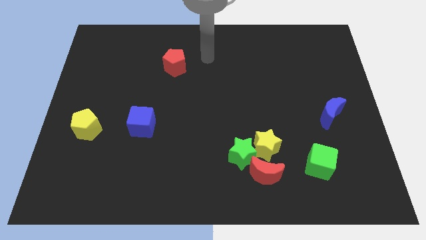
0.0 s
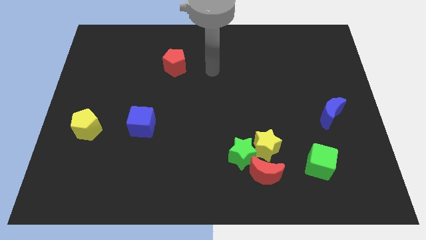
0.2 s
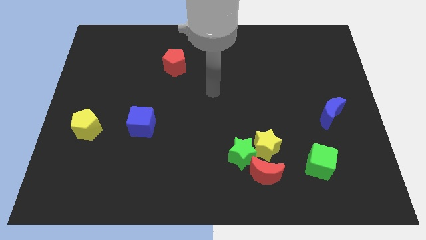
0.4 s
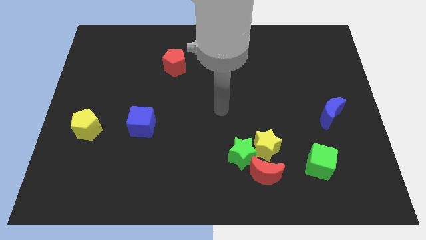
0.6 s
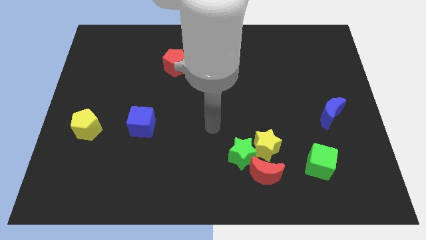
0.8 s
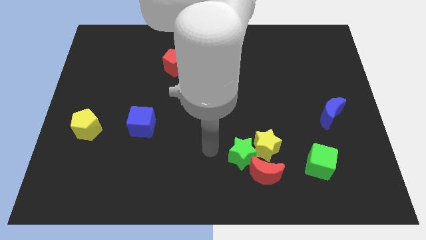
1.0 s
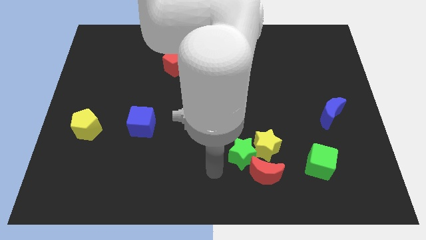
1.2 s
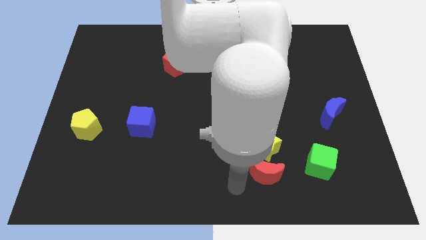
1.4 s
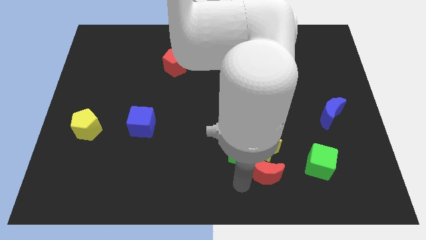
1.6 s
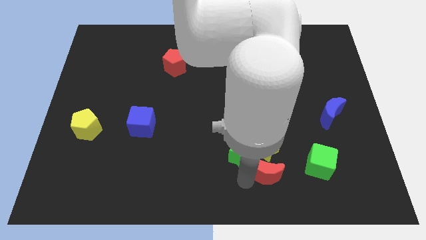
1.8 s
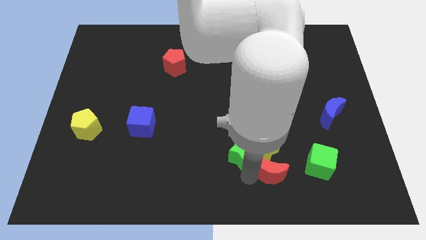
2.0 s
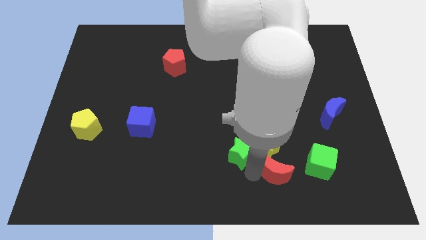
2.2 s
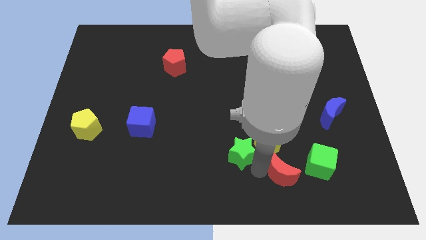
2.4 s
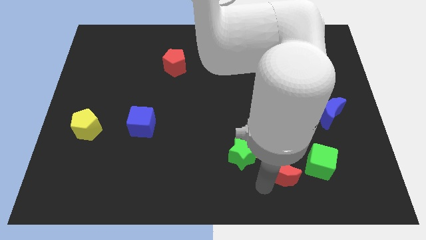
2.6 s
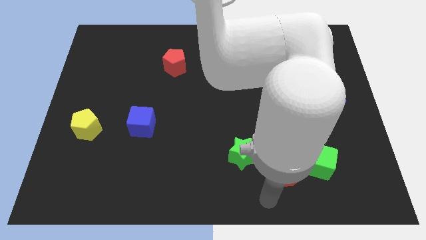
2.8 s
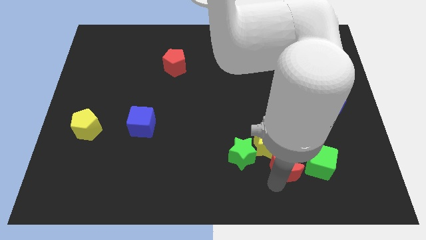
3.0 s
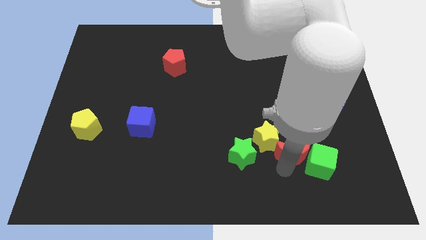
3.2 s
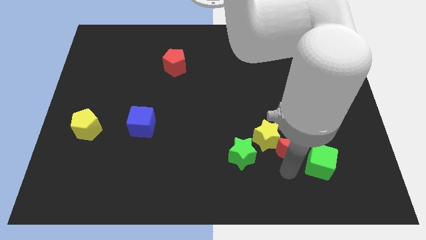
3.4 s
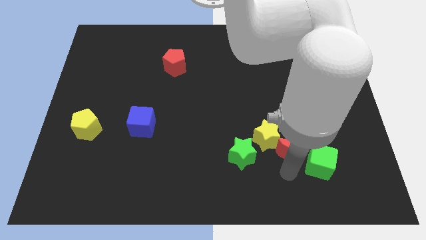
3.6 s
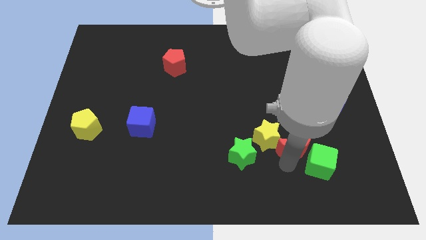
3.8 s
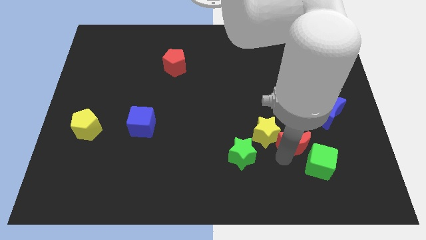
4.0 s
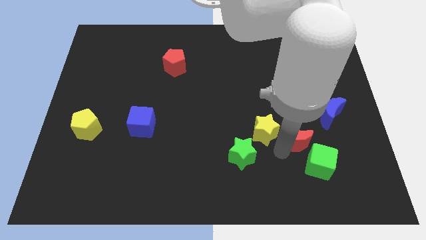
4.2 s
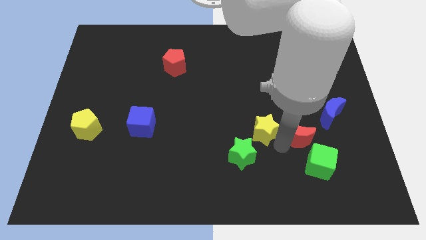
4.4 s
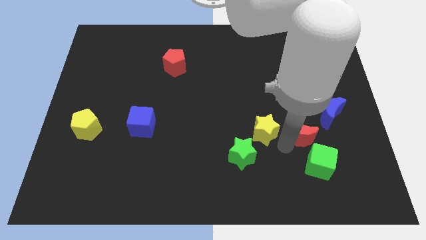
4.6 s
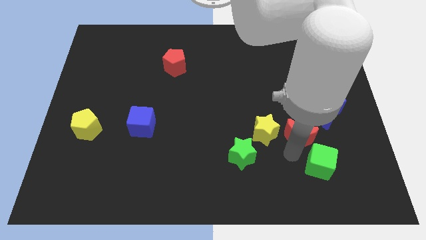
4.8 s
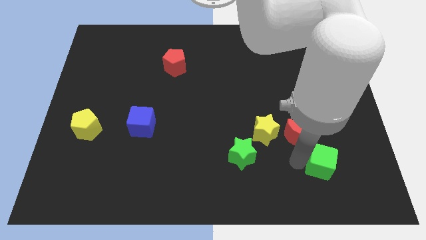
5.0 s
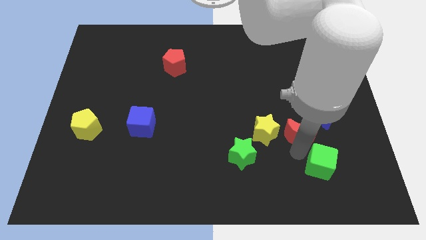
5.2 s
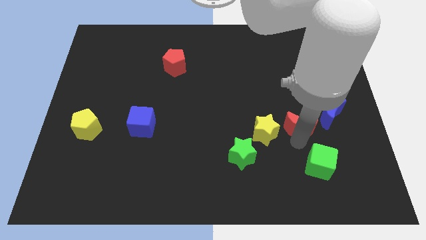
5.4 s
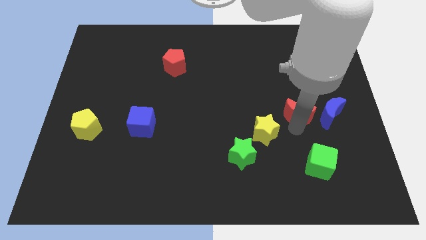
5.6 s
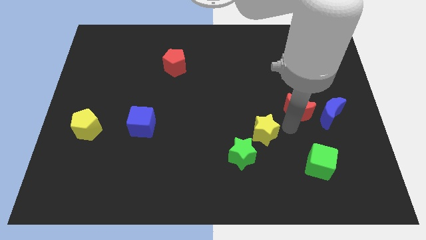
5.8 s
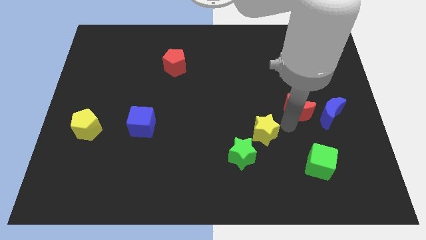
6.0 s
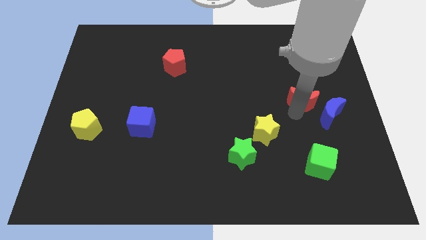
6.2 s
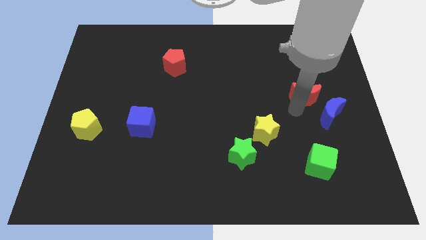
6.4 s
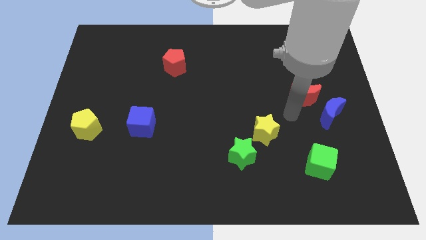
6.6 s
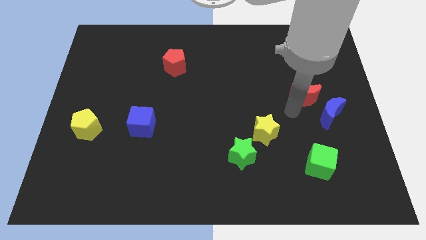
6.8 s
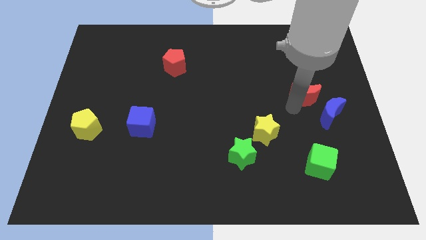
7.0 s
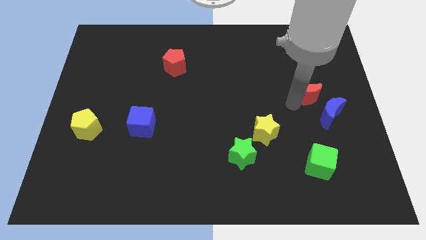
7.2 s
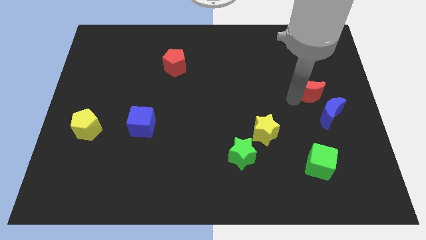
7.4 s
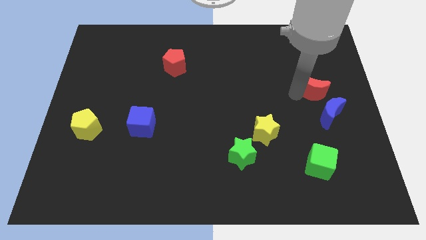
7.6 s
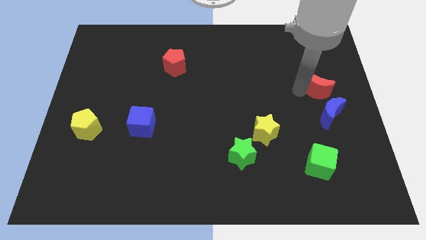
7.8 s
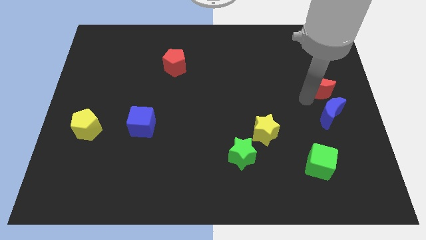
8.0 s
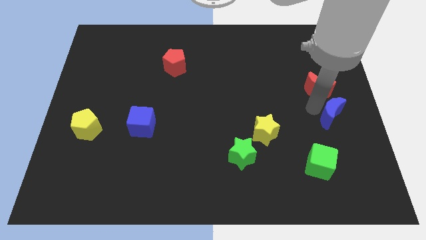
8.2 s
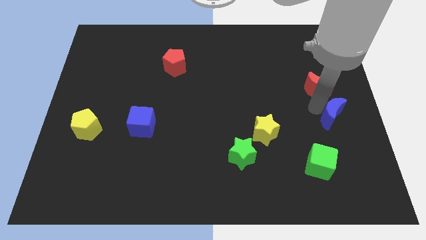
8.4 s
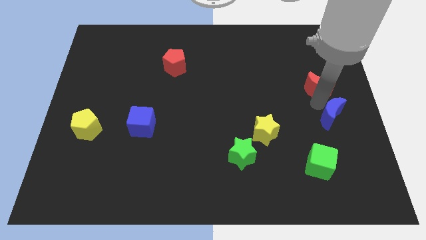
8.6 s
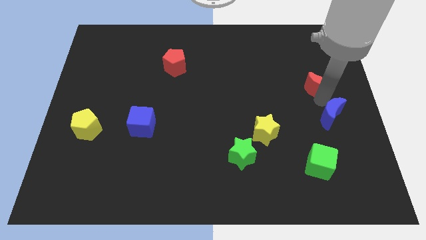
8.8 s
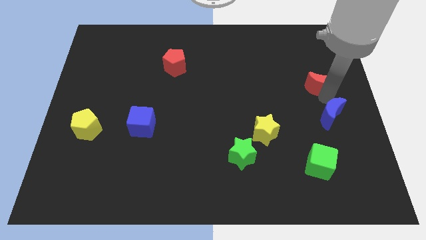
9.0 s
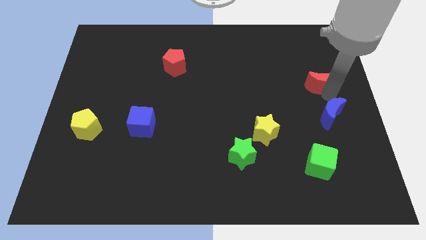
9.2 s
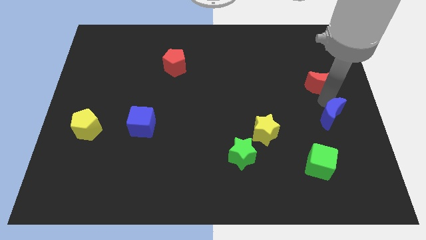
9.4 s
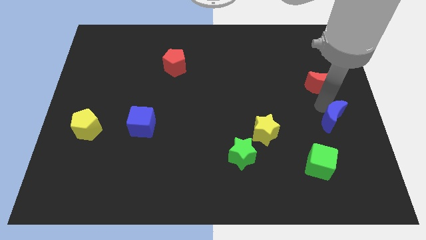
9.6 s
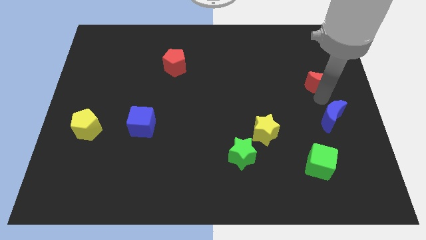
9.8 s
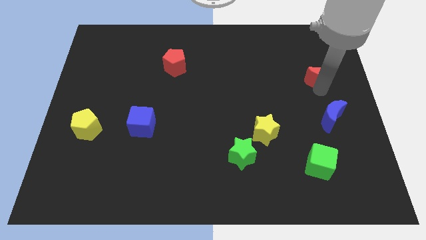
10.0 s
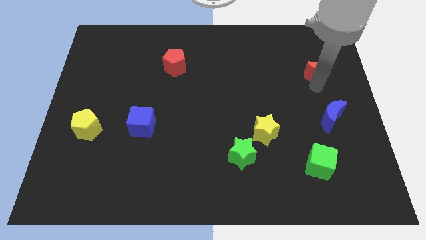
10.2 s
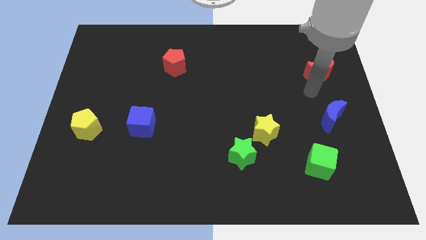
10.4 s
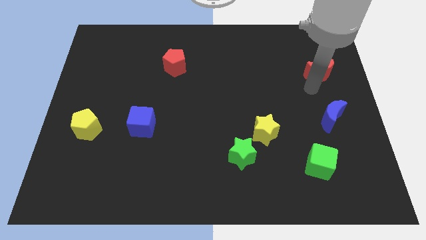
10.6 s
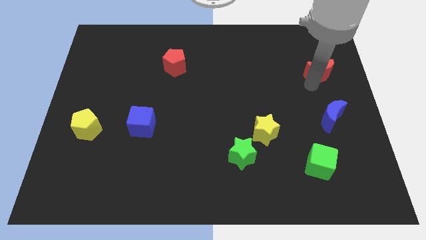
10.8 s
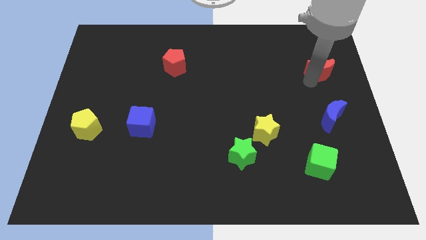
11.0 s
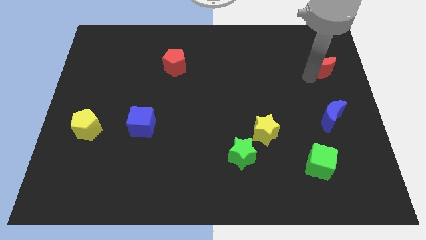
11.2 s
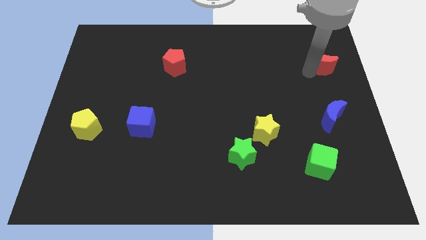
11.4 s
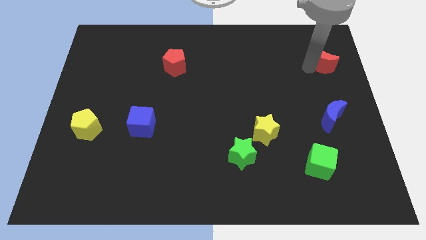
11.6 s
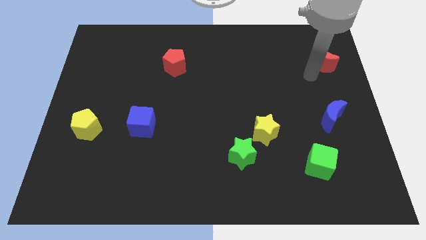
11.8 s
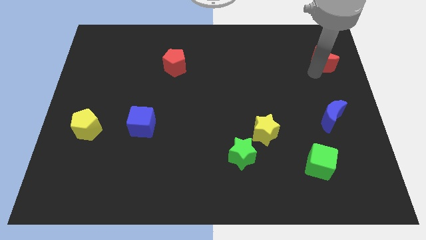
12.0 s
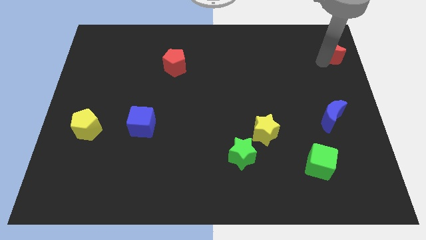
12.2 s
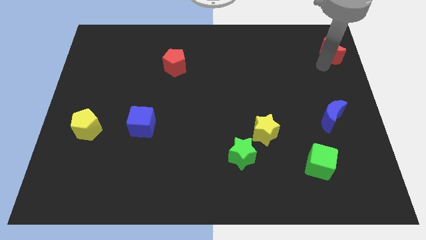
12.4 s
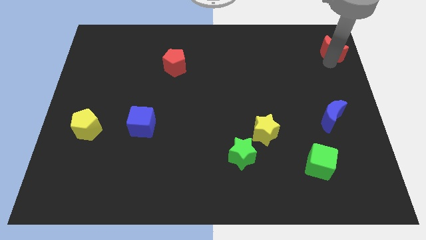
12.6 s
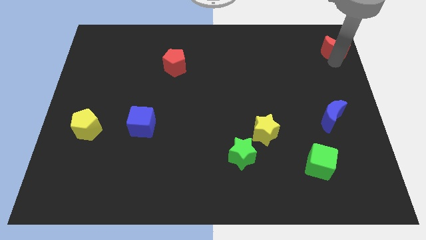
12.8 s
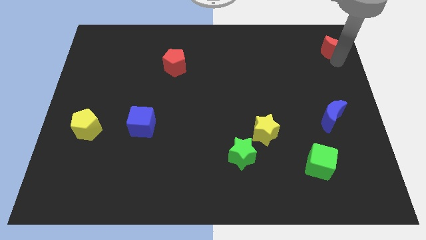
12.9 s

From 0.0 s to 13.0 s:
slide the red moon to the upper right corner
